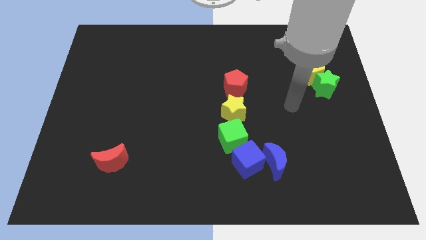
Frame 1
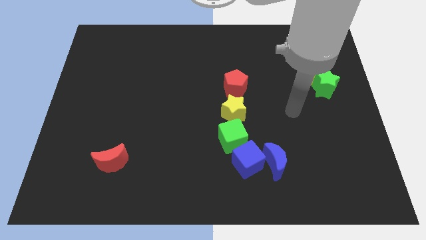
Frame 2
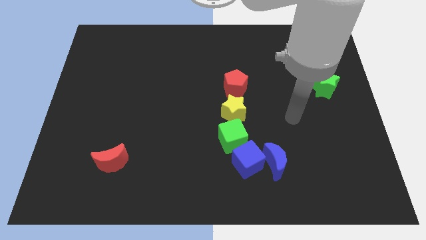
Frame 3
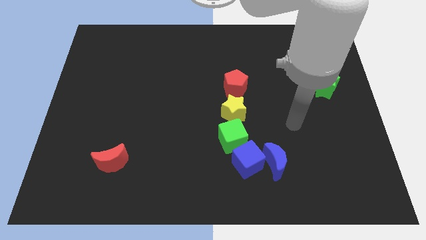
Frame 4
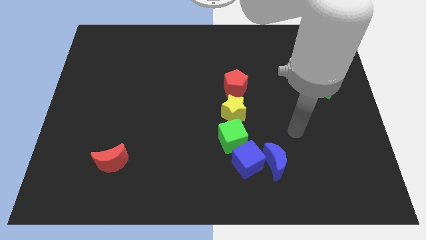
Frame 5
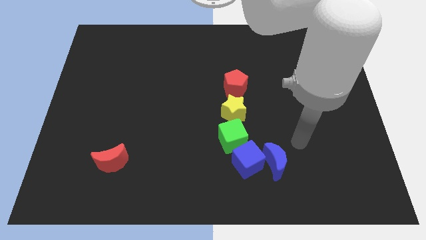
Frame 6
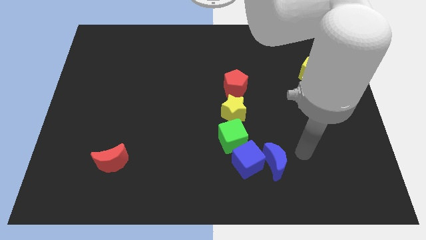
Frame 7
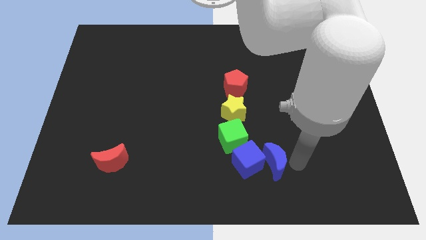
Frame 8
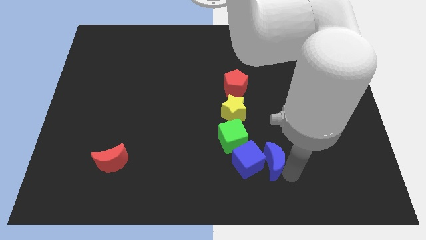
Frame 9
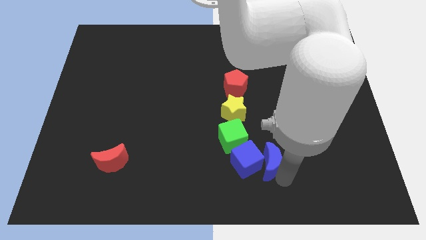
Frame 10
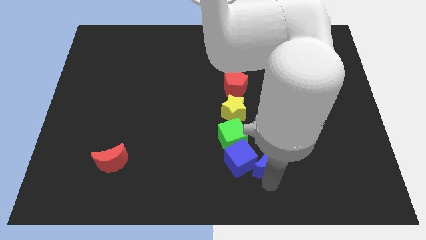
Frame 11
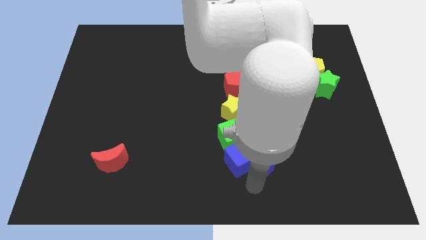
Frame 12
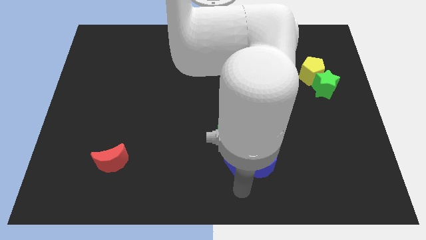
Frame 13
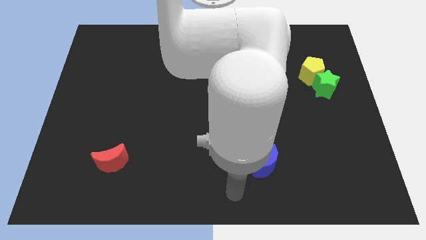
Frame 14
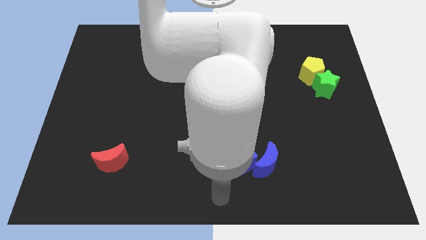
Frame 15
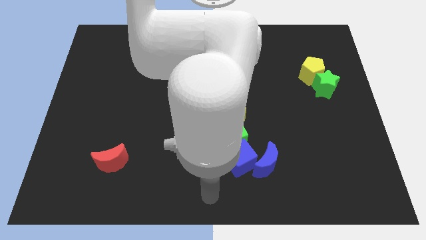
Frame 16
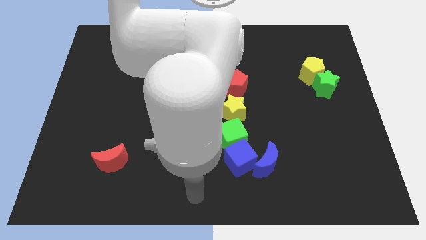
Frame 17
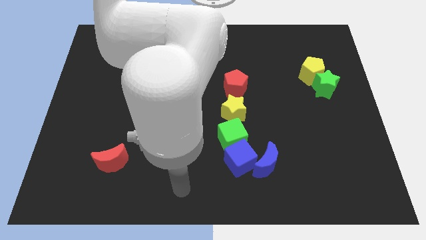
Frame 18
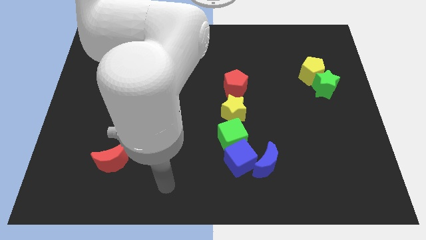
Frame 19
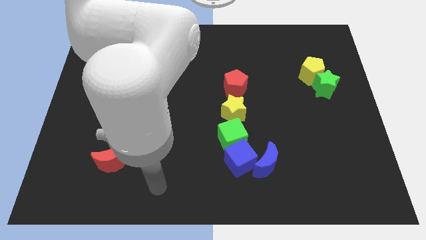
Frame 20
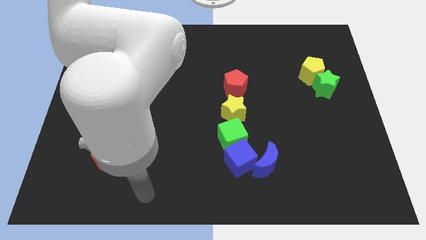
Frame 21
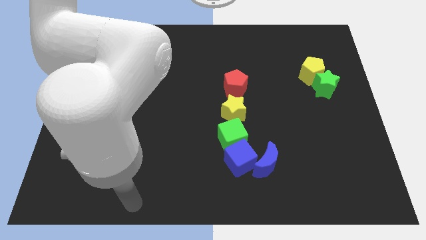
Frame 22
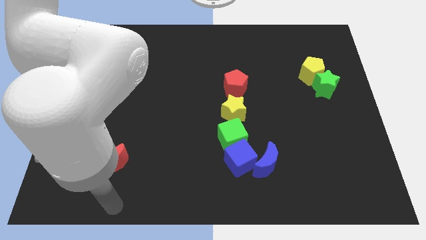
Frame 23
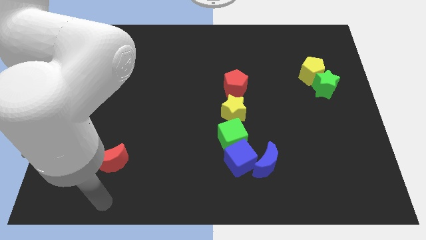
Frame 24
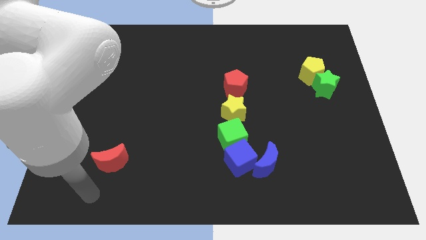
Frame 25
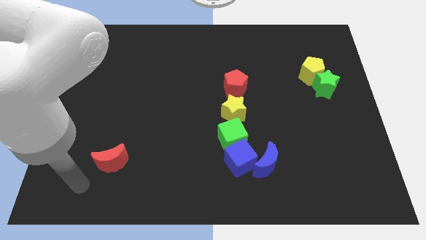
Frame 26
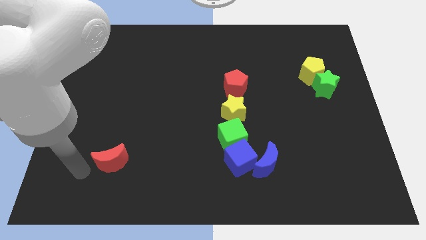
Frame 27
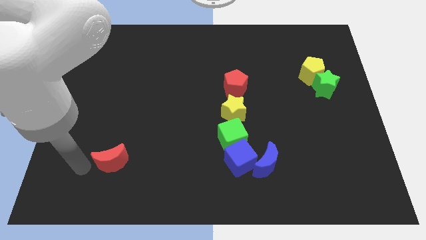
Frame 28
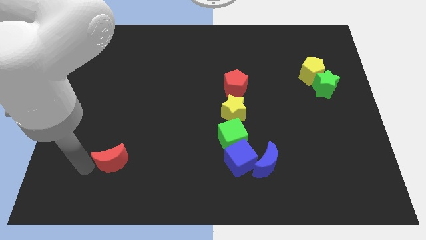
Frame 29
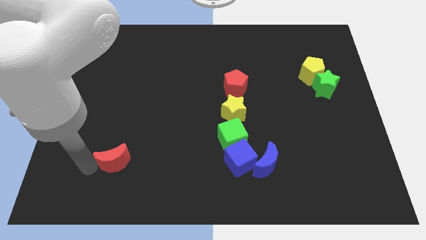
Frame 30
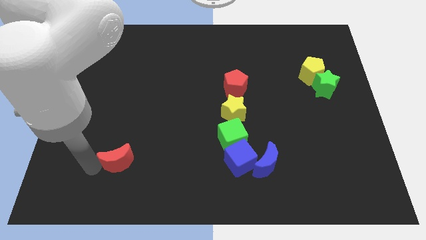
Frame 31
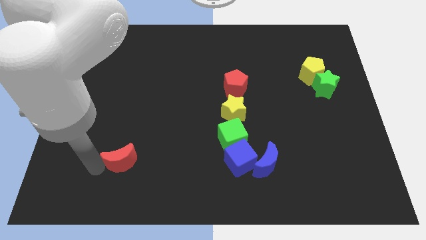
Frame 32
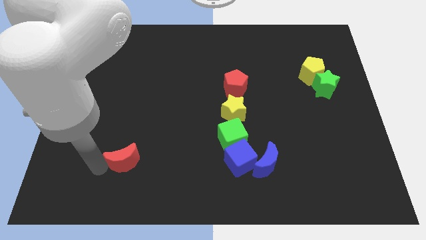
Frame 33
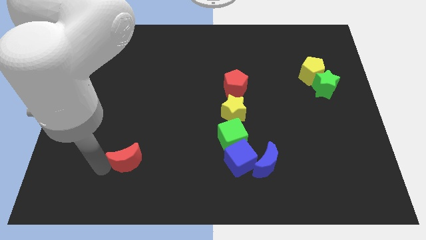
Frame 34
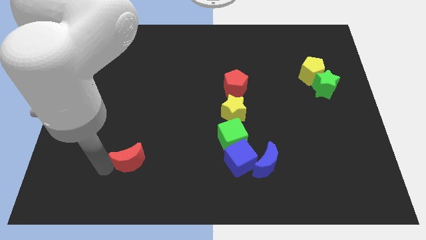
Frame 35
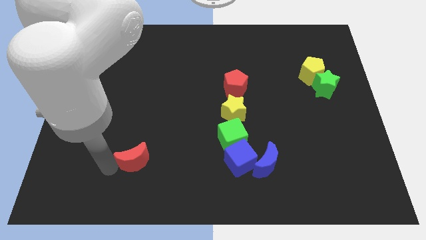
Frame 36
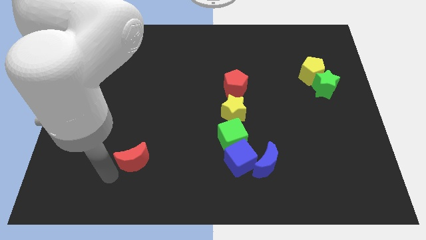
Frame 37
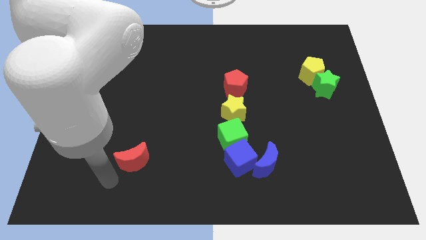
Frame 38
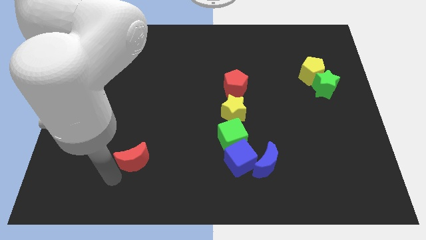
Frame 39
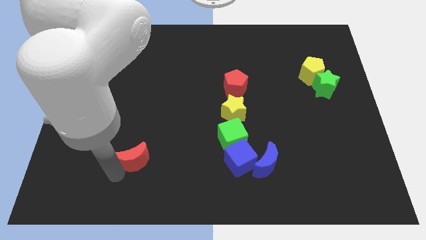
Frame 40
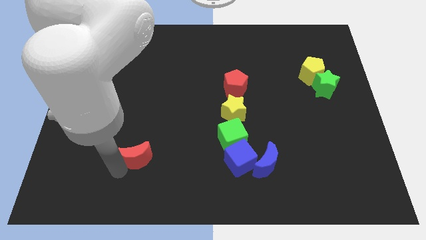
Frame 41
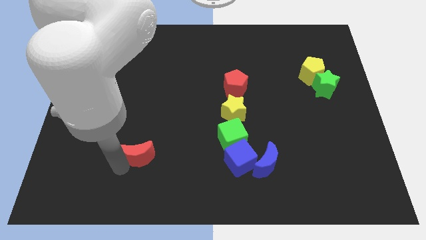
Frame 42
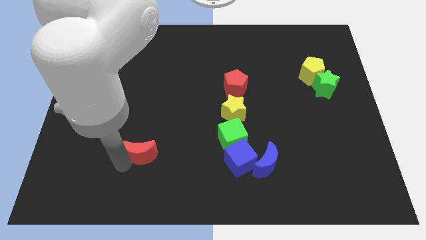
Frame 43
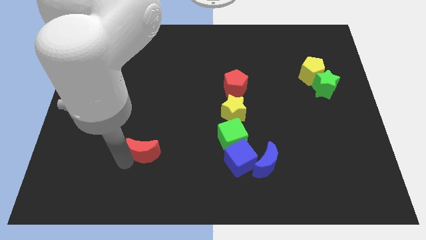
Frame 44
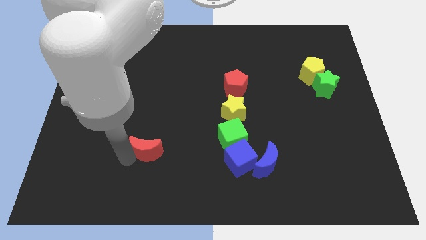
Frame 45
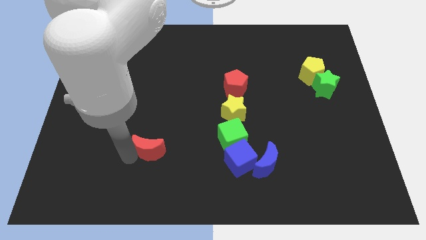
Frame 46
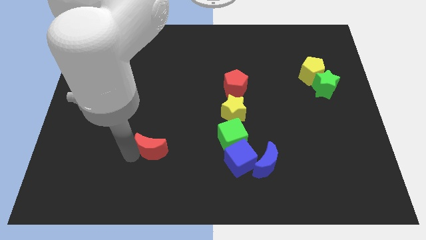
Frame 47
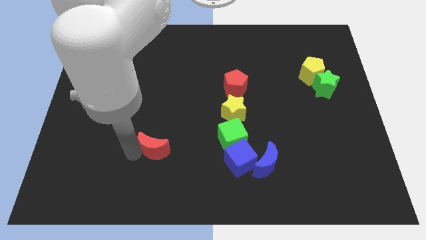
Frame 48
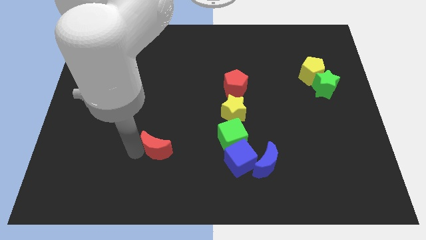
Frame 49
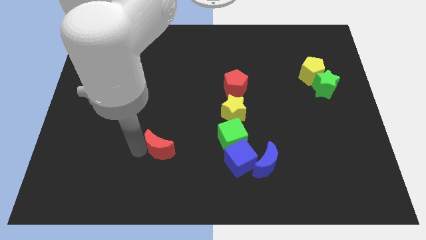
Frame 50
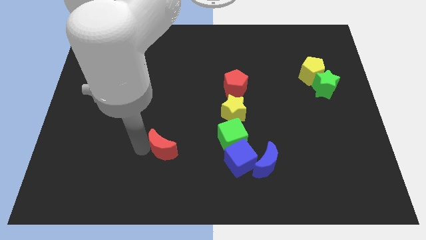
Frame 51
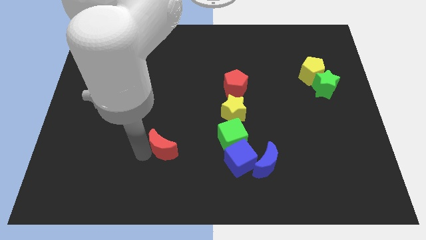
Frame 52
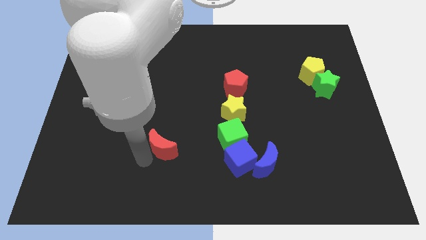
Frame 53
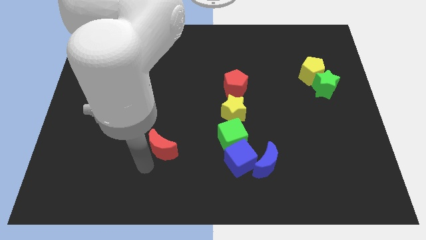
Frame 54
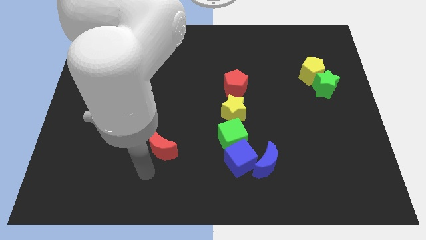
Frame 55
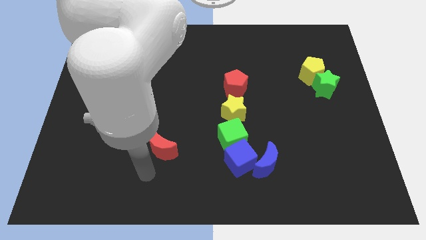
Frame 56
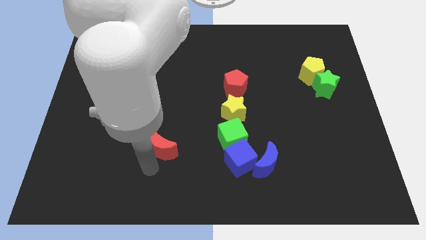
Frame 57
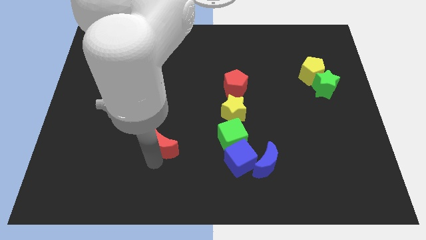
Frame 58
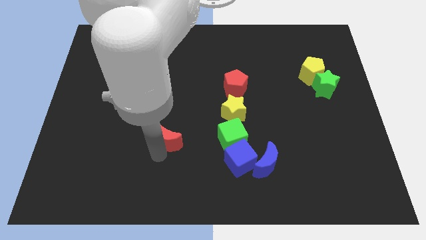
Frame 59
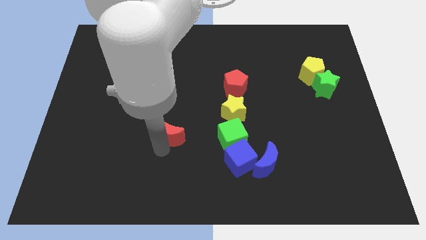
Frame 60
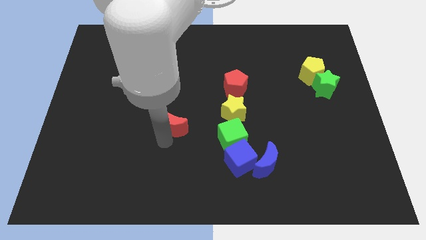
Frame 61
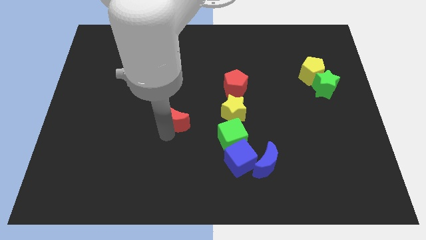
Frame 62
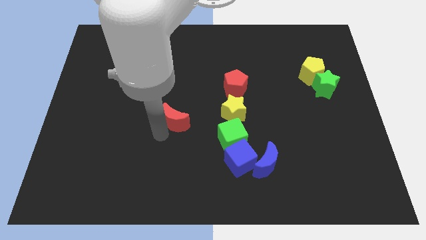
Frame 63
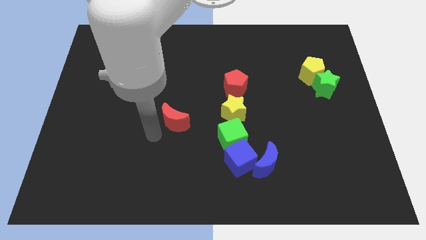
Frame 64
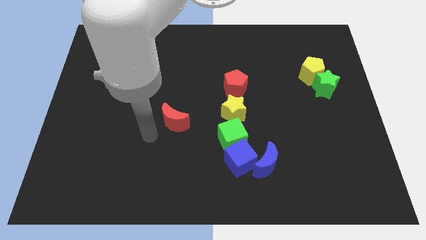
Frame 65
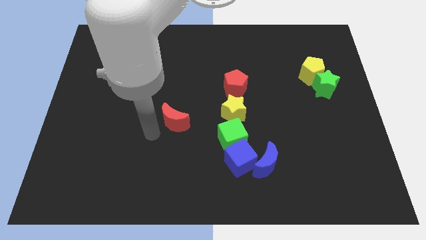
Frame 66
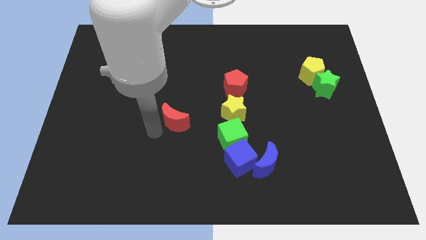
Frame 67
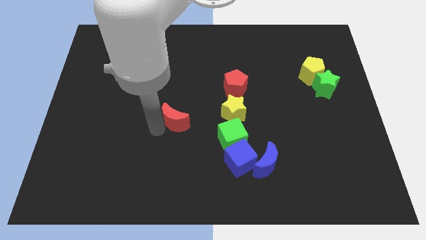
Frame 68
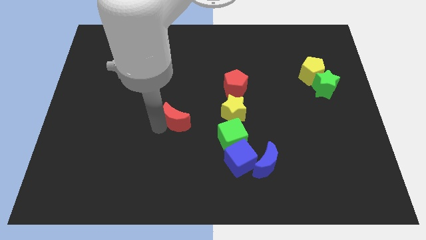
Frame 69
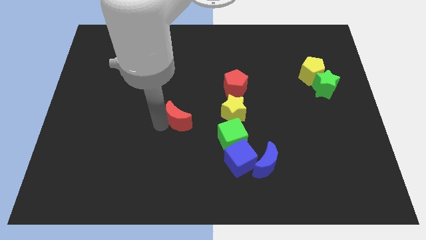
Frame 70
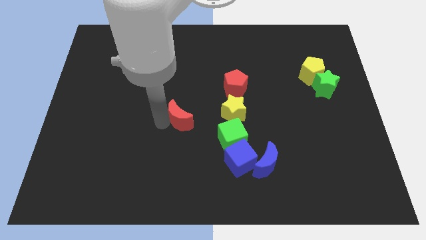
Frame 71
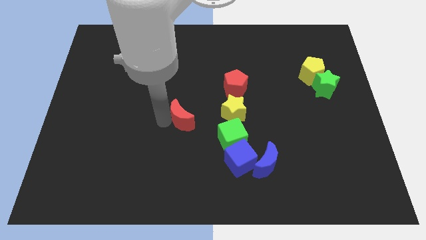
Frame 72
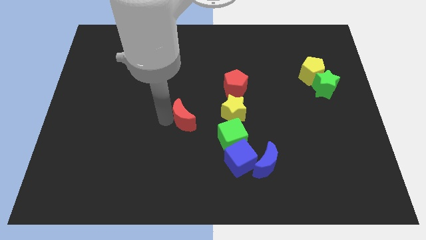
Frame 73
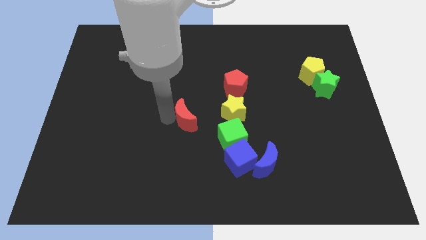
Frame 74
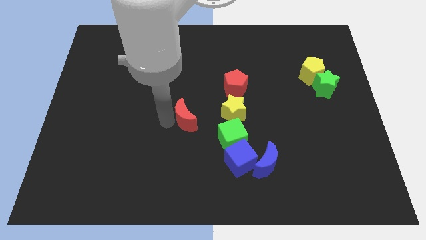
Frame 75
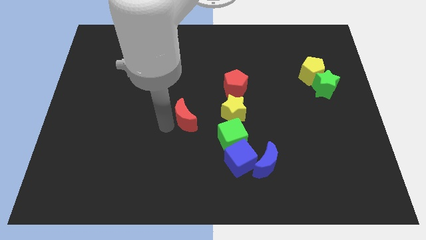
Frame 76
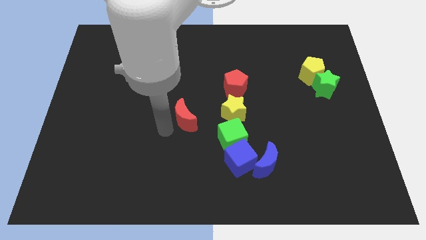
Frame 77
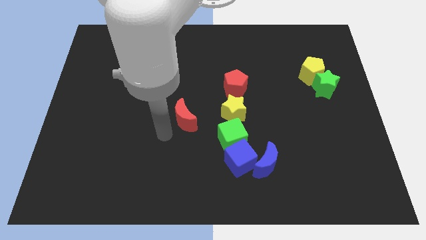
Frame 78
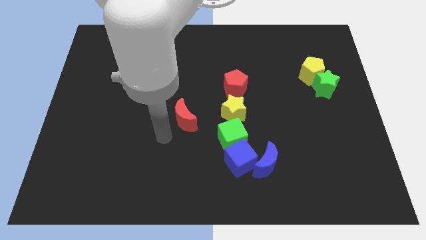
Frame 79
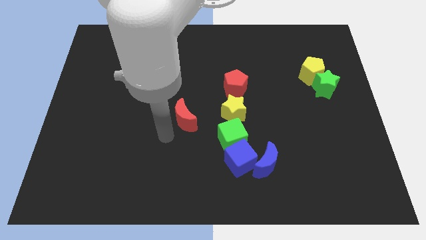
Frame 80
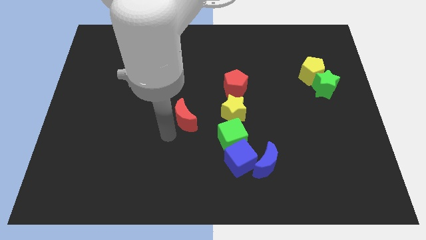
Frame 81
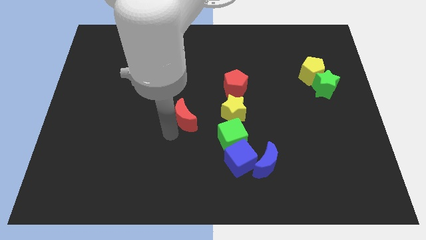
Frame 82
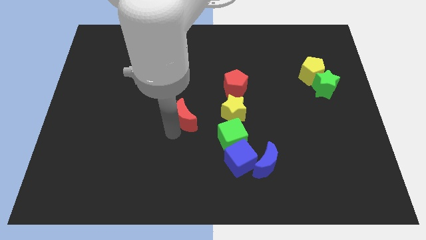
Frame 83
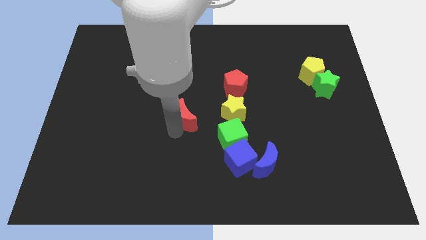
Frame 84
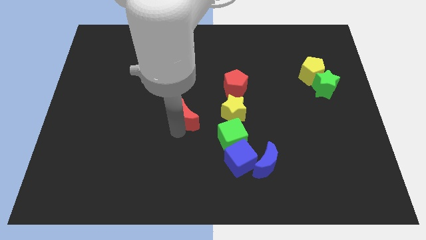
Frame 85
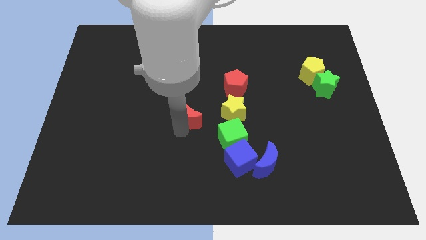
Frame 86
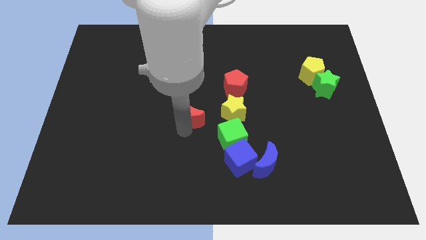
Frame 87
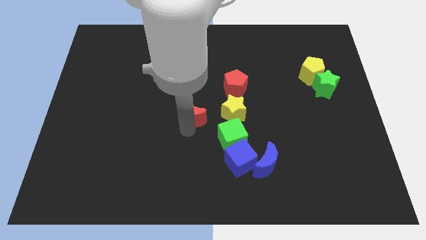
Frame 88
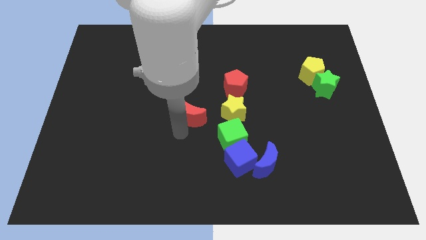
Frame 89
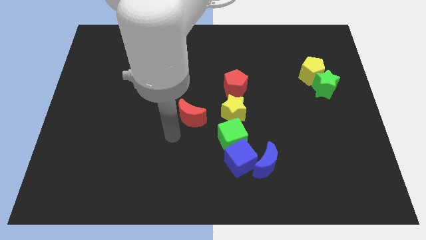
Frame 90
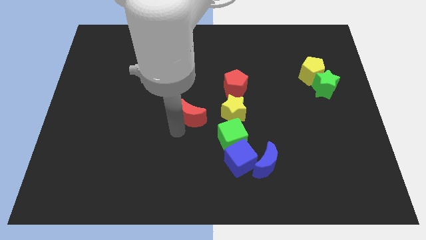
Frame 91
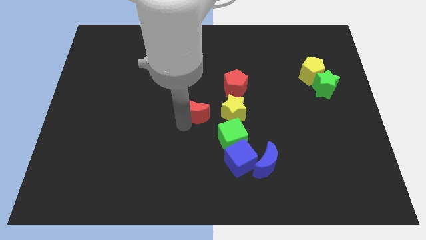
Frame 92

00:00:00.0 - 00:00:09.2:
move the red moon upwards and then to the right
